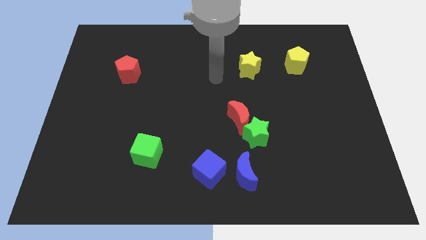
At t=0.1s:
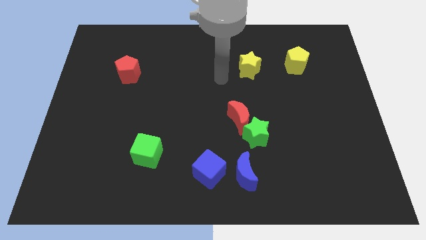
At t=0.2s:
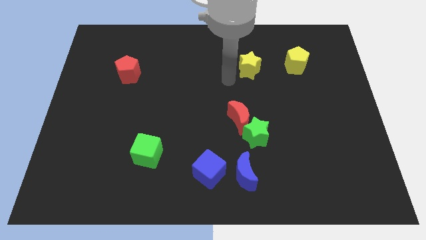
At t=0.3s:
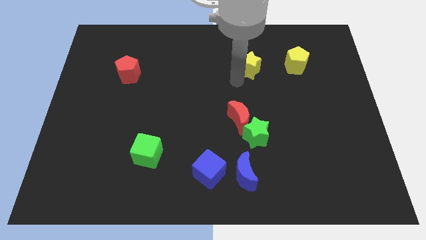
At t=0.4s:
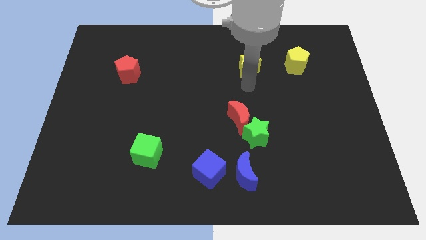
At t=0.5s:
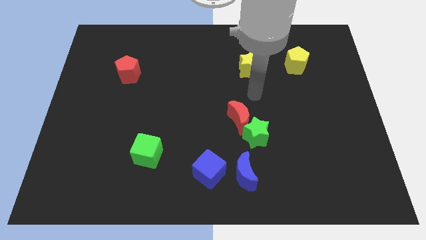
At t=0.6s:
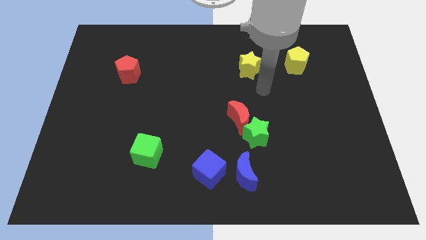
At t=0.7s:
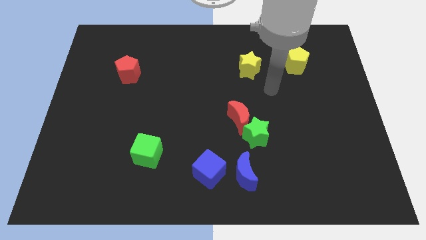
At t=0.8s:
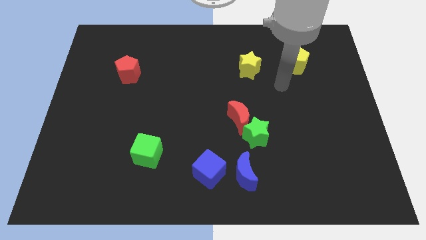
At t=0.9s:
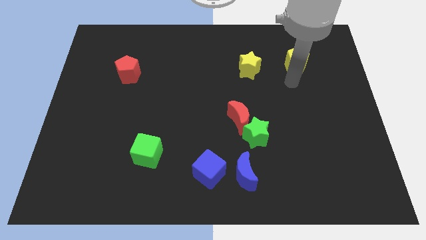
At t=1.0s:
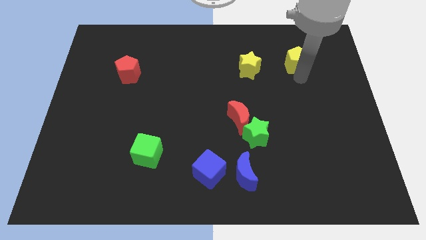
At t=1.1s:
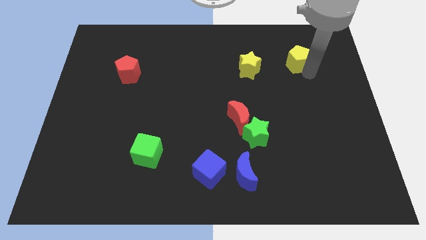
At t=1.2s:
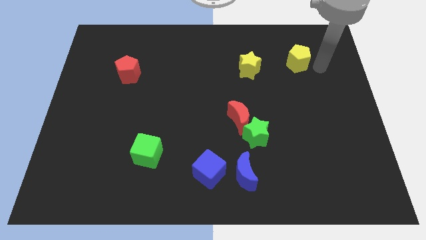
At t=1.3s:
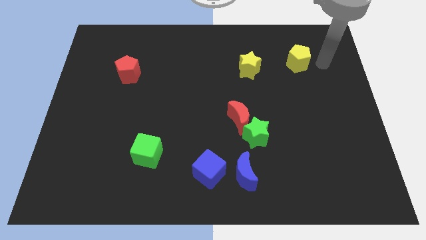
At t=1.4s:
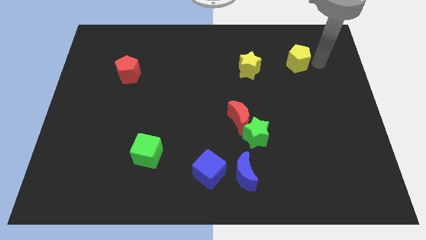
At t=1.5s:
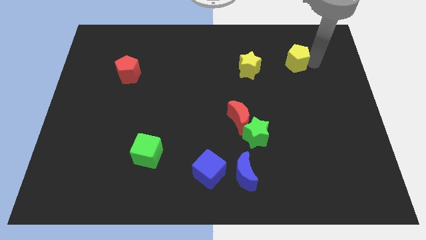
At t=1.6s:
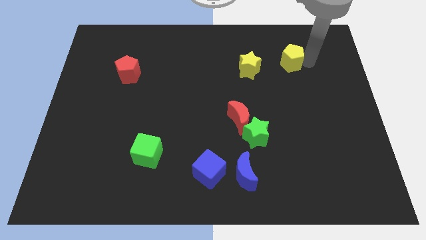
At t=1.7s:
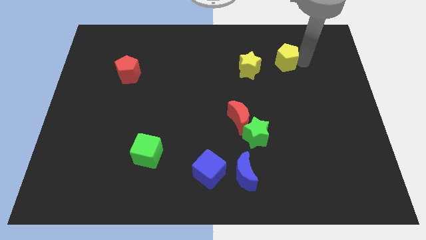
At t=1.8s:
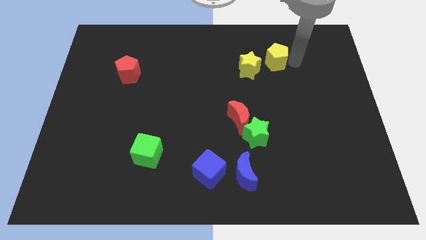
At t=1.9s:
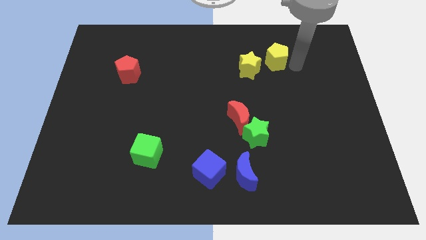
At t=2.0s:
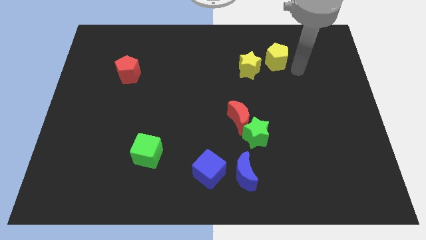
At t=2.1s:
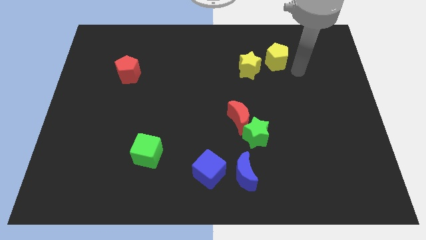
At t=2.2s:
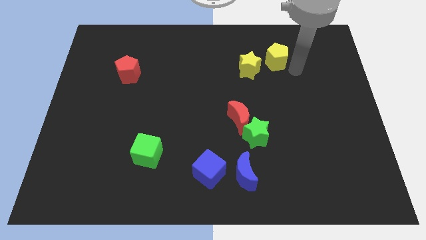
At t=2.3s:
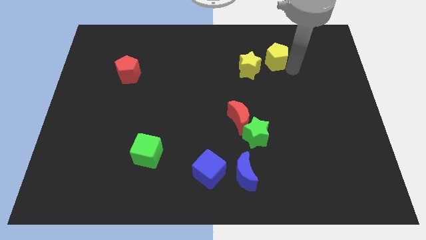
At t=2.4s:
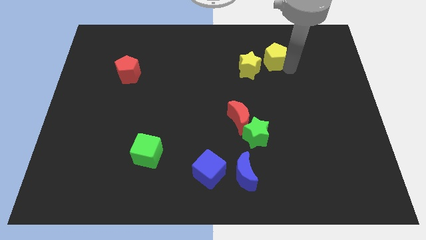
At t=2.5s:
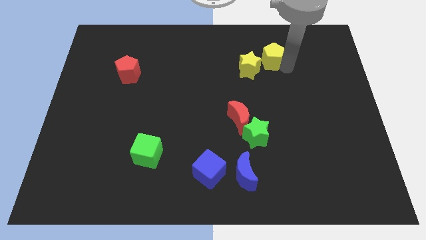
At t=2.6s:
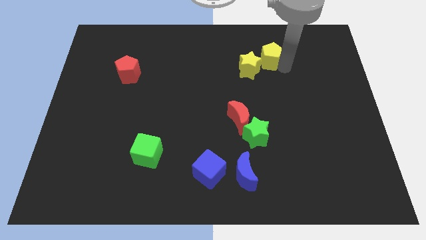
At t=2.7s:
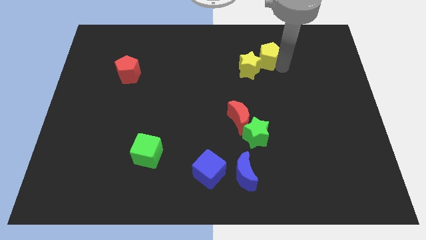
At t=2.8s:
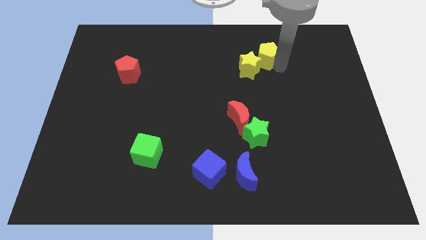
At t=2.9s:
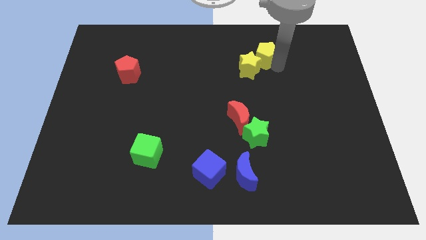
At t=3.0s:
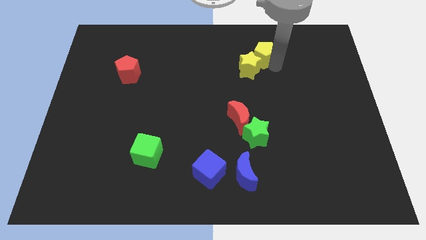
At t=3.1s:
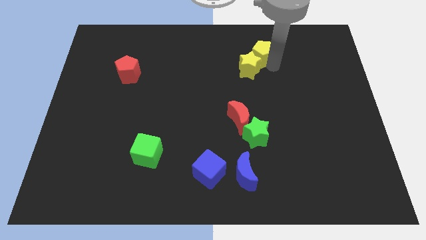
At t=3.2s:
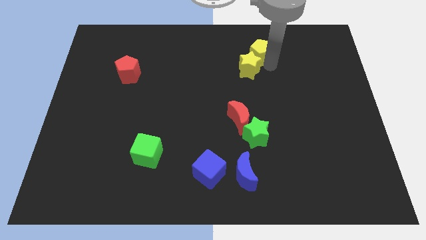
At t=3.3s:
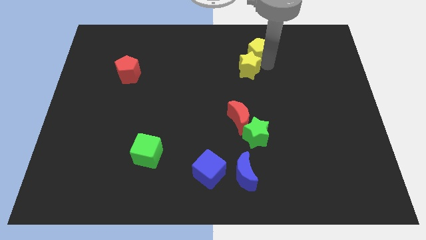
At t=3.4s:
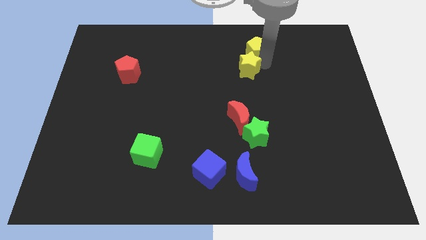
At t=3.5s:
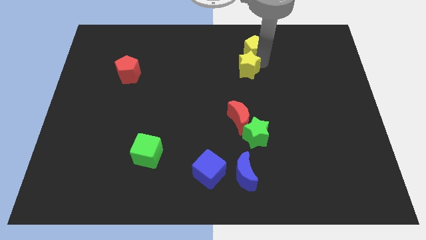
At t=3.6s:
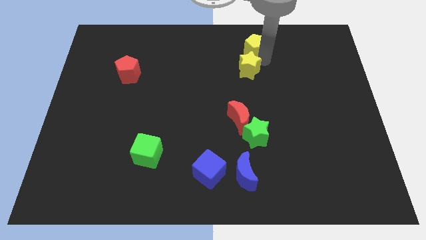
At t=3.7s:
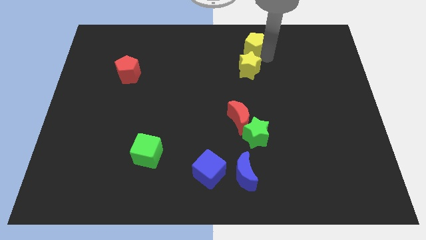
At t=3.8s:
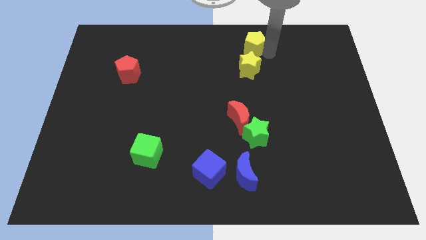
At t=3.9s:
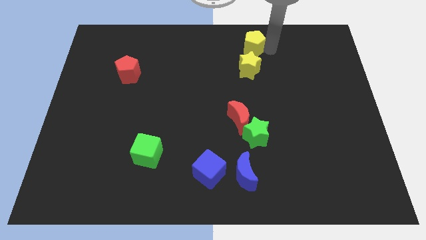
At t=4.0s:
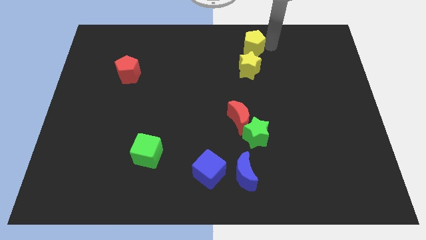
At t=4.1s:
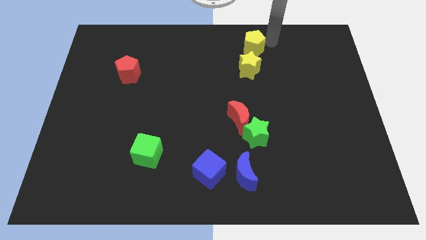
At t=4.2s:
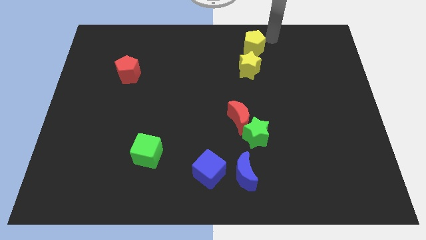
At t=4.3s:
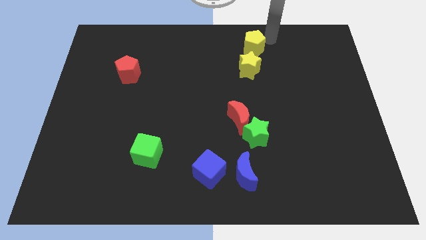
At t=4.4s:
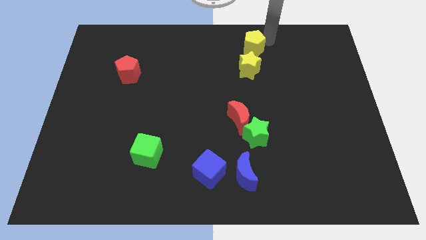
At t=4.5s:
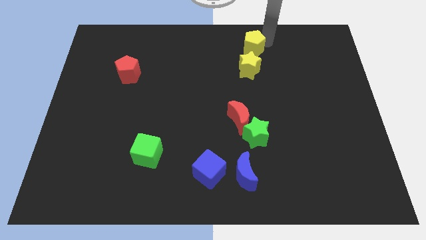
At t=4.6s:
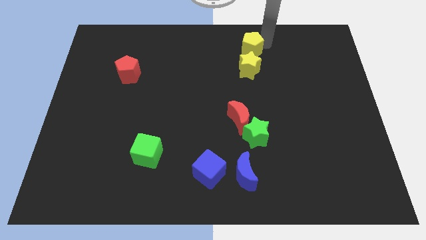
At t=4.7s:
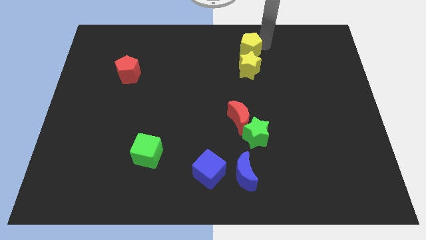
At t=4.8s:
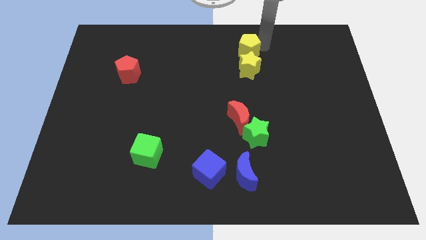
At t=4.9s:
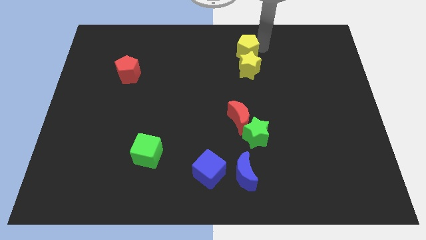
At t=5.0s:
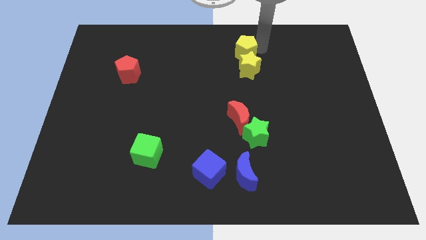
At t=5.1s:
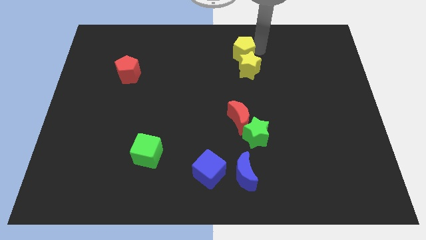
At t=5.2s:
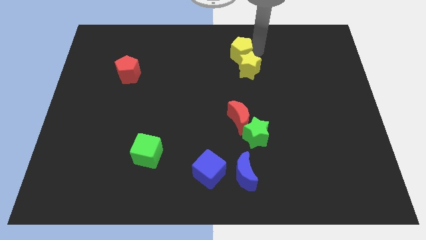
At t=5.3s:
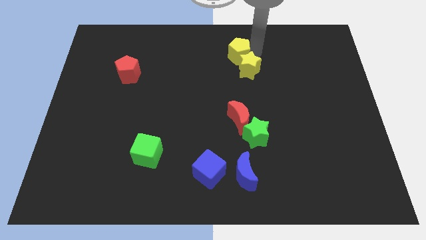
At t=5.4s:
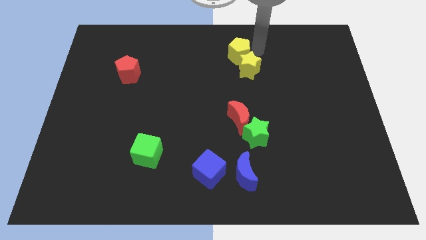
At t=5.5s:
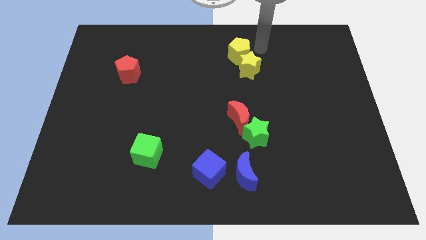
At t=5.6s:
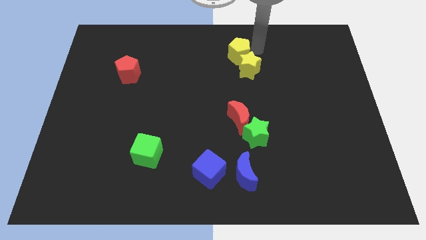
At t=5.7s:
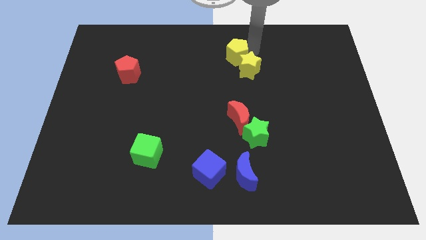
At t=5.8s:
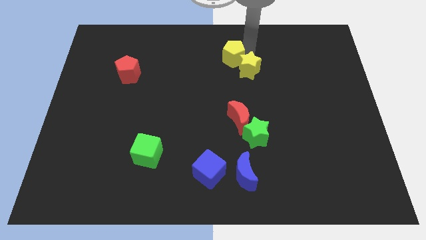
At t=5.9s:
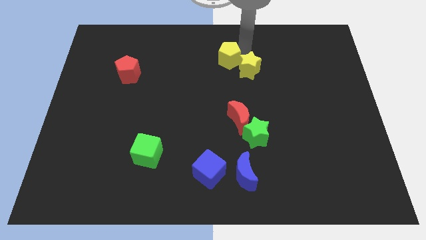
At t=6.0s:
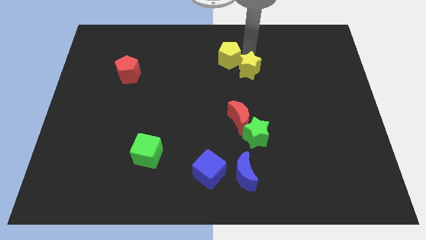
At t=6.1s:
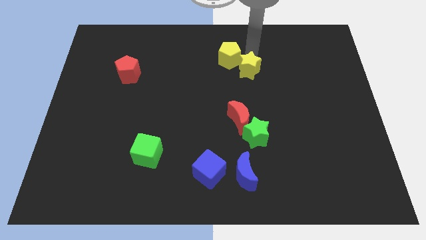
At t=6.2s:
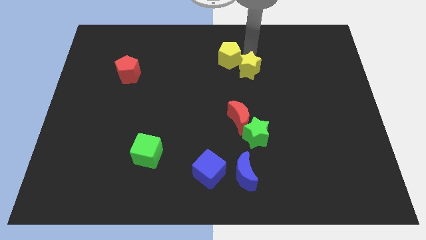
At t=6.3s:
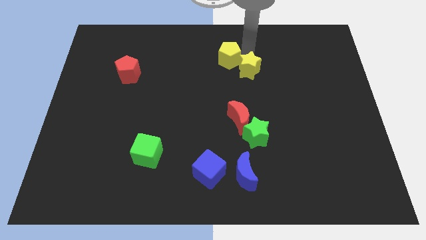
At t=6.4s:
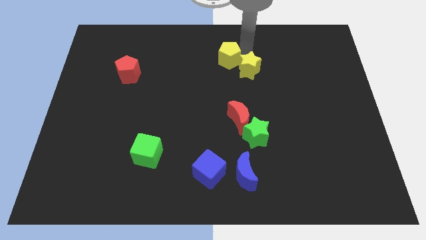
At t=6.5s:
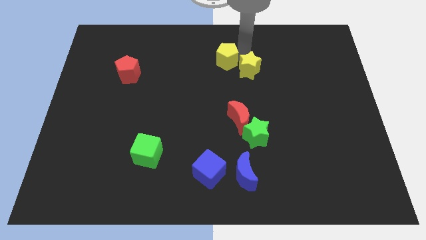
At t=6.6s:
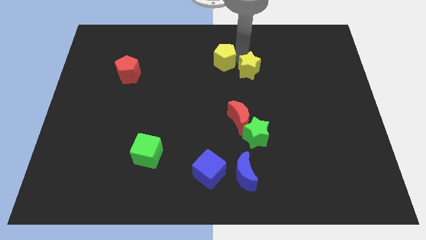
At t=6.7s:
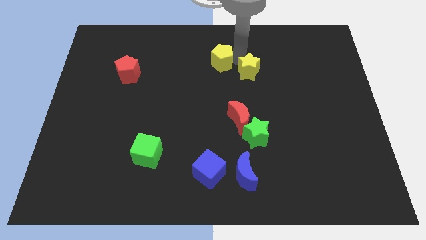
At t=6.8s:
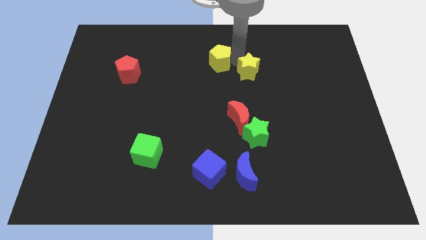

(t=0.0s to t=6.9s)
move the yellow pentagon left

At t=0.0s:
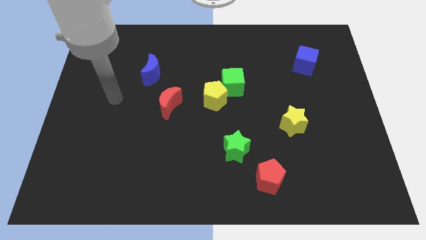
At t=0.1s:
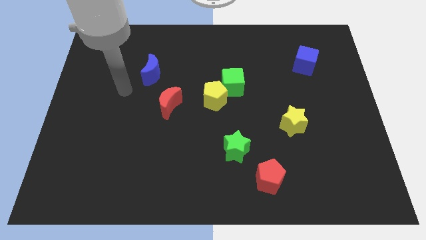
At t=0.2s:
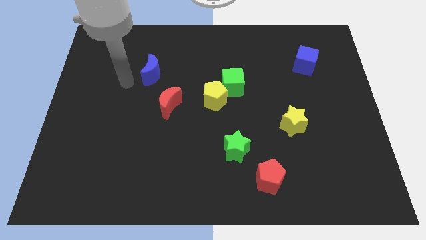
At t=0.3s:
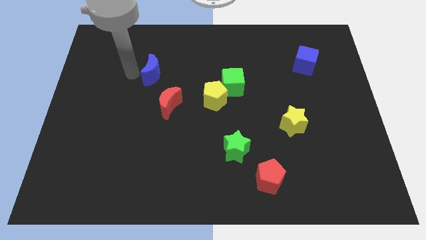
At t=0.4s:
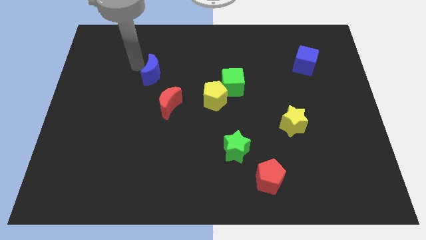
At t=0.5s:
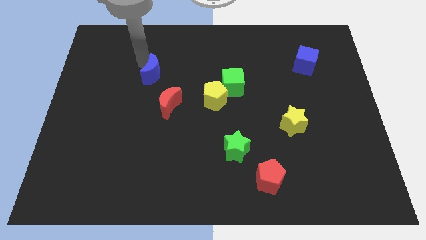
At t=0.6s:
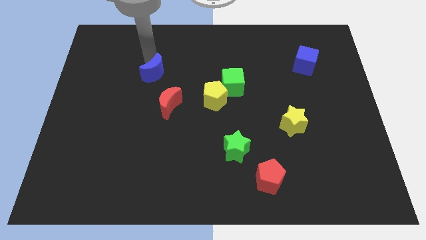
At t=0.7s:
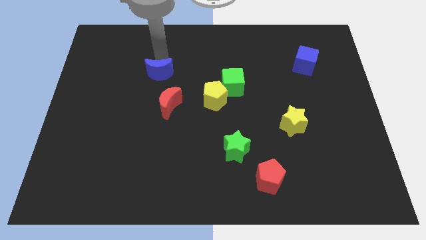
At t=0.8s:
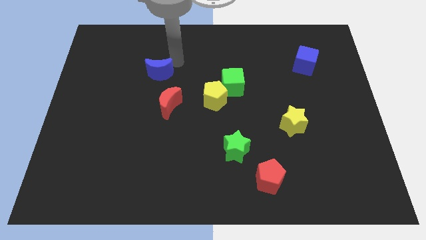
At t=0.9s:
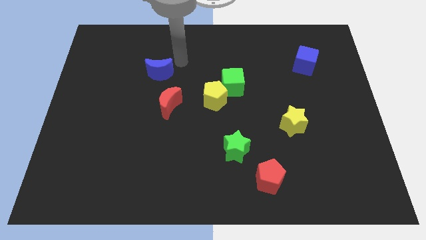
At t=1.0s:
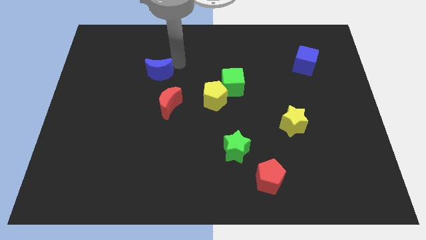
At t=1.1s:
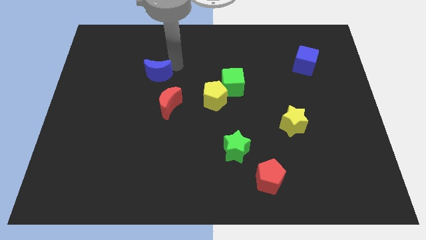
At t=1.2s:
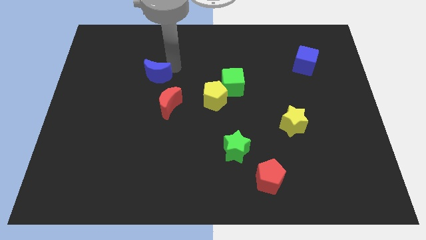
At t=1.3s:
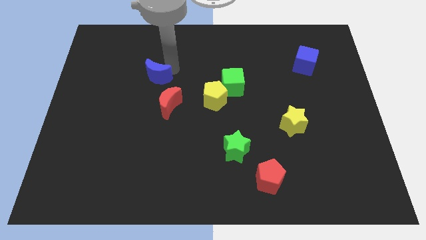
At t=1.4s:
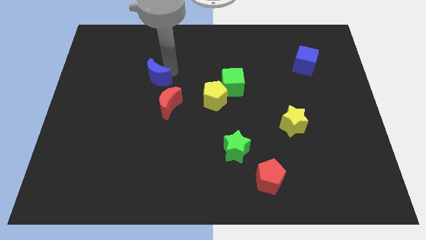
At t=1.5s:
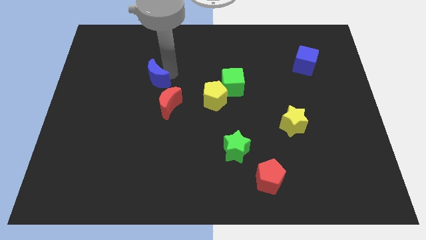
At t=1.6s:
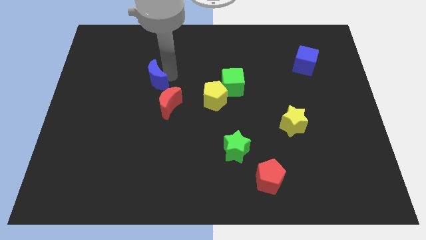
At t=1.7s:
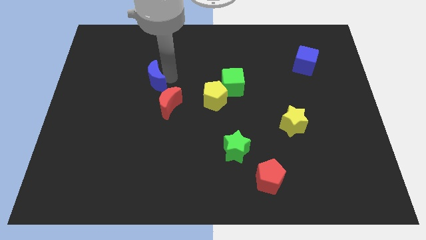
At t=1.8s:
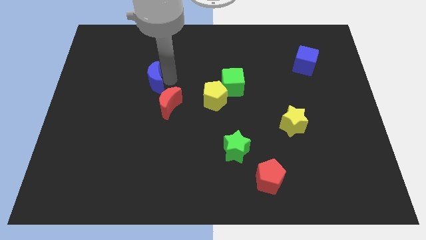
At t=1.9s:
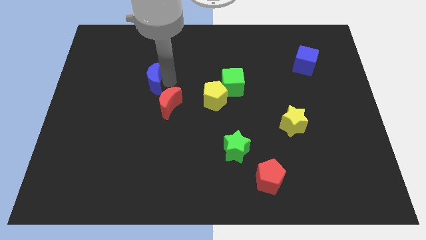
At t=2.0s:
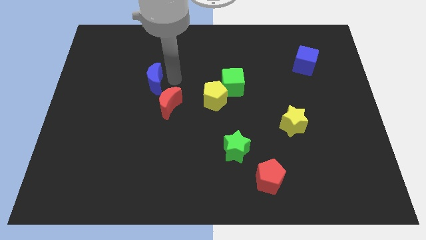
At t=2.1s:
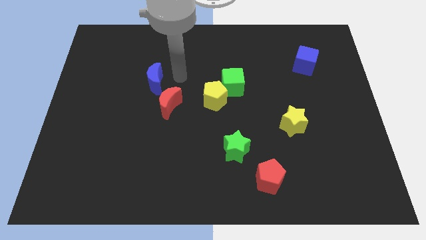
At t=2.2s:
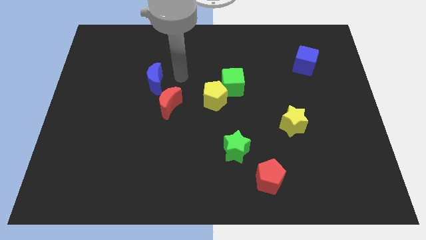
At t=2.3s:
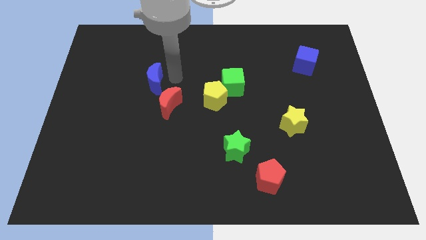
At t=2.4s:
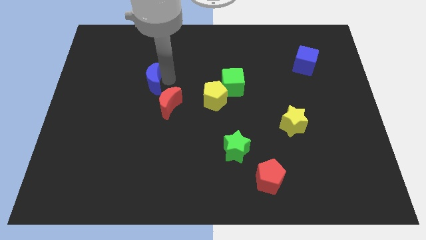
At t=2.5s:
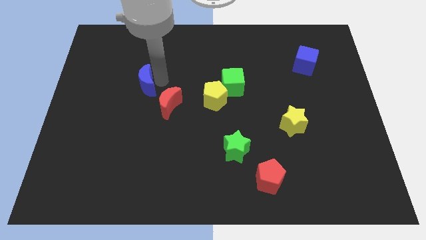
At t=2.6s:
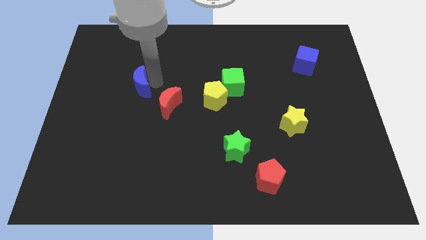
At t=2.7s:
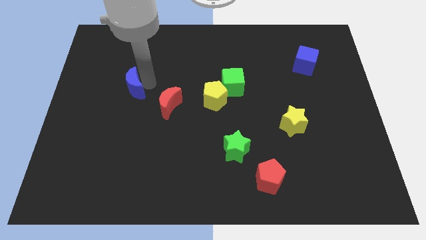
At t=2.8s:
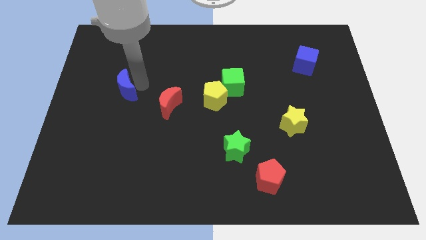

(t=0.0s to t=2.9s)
move the blue moon diagonally downwards and left slightly
